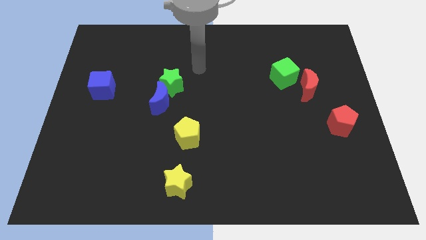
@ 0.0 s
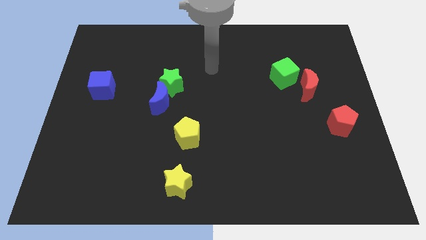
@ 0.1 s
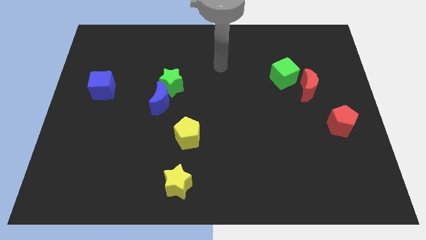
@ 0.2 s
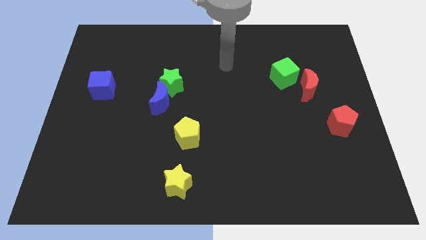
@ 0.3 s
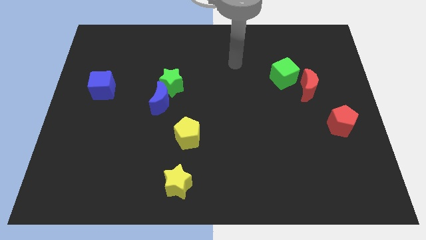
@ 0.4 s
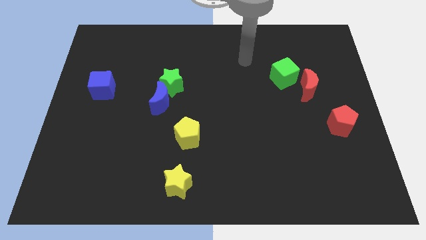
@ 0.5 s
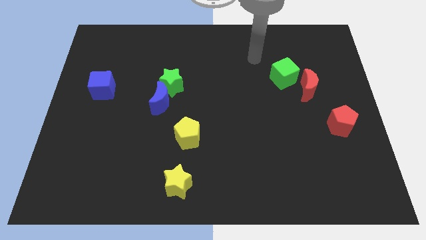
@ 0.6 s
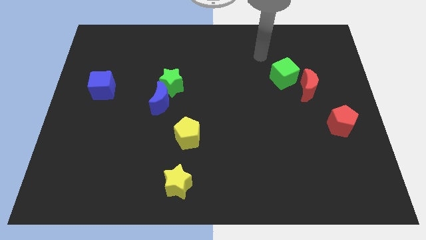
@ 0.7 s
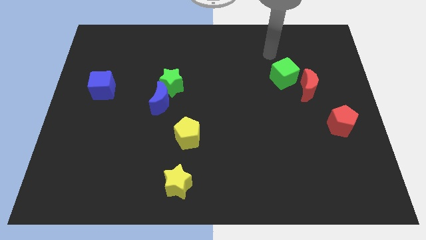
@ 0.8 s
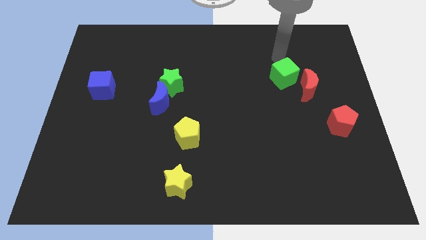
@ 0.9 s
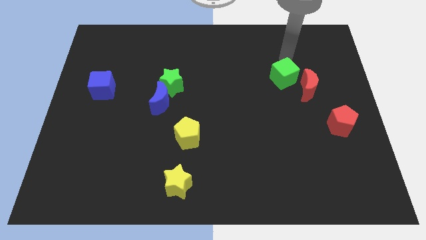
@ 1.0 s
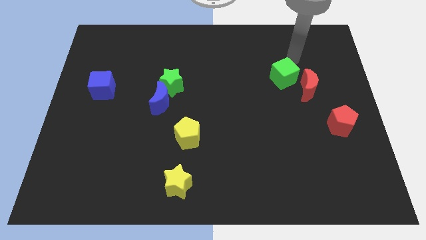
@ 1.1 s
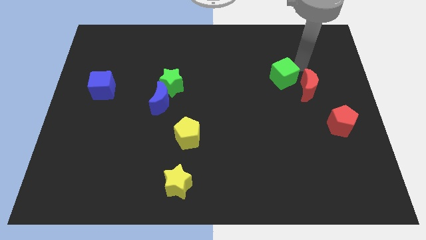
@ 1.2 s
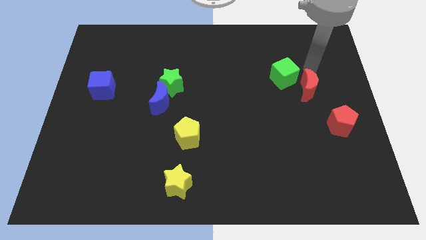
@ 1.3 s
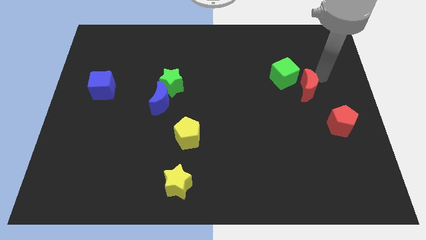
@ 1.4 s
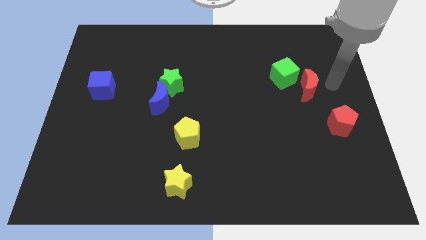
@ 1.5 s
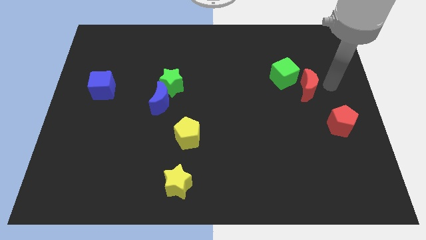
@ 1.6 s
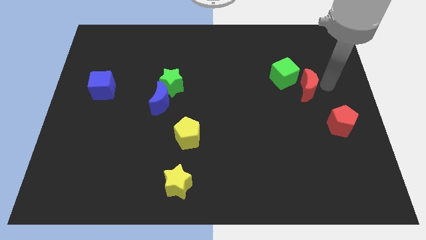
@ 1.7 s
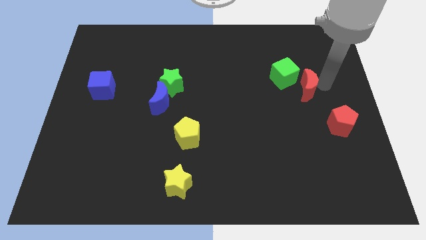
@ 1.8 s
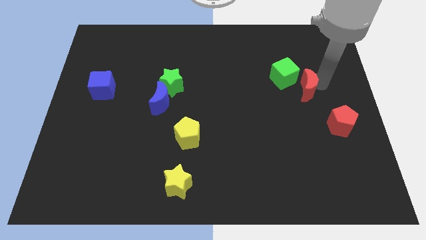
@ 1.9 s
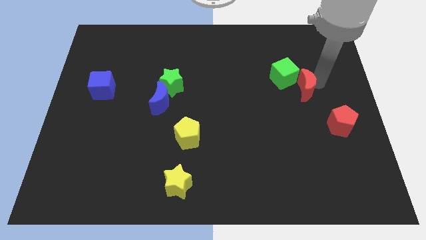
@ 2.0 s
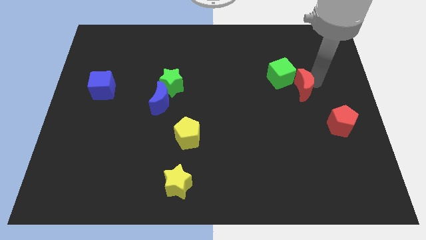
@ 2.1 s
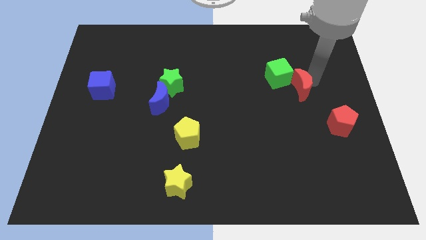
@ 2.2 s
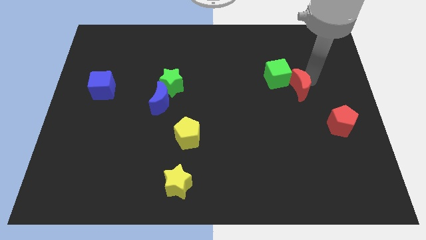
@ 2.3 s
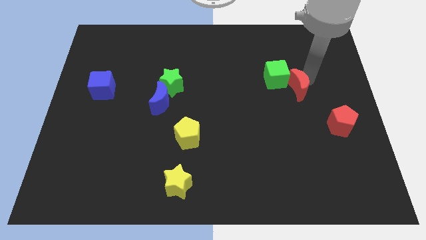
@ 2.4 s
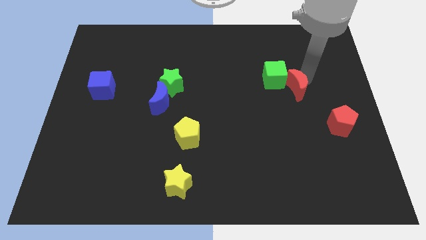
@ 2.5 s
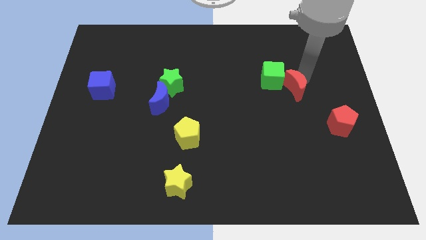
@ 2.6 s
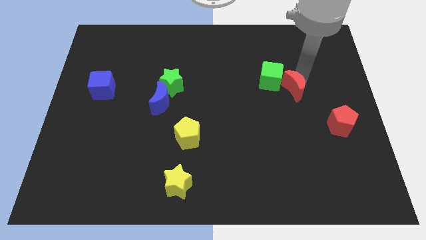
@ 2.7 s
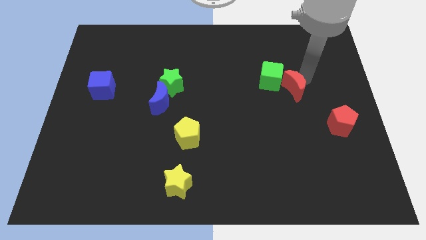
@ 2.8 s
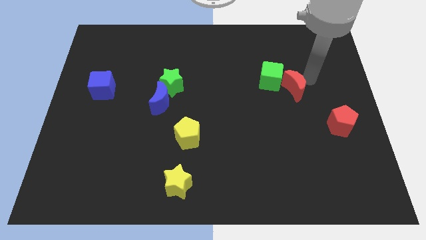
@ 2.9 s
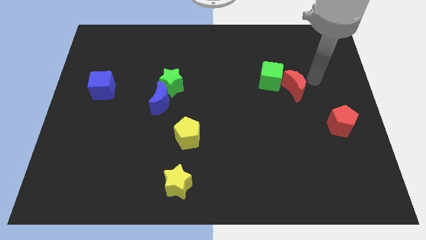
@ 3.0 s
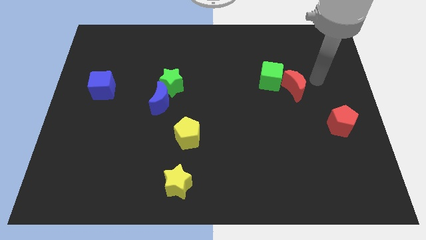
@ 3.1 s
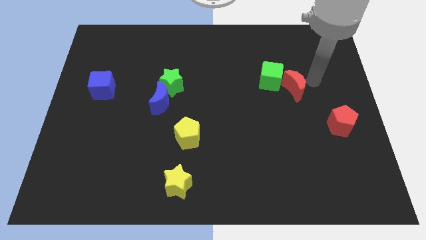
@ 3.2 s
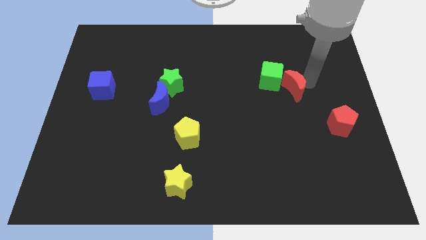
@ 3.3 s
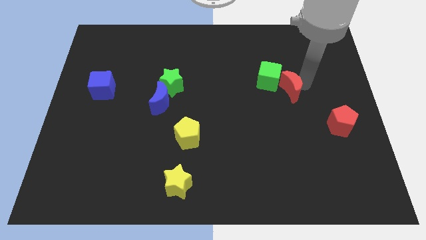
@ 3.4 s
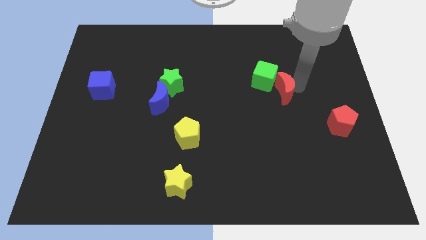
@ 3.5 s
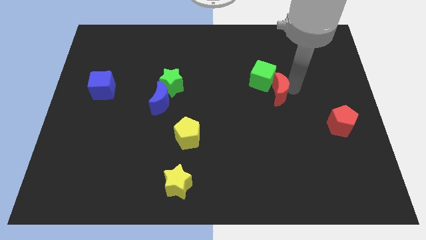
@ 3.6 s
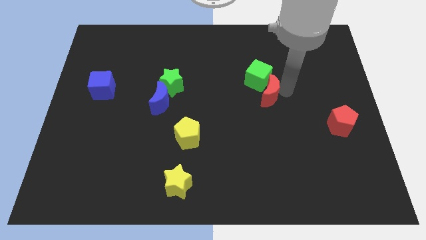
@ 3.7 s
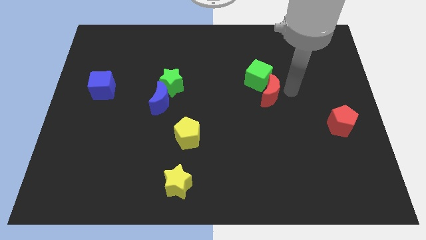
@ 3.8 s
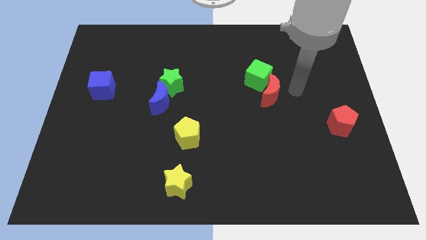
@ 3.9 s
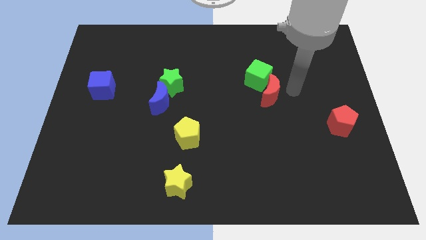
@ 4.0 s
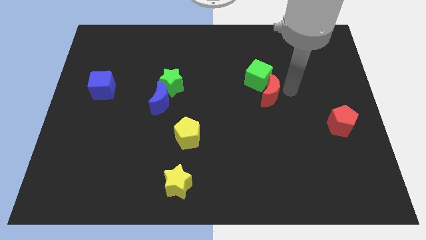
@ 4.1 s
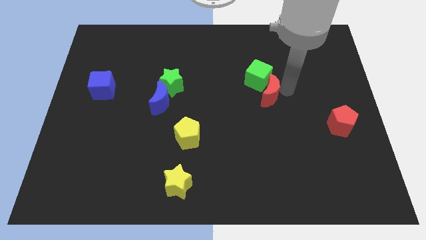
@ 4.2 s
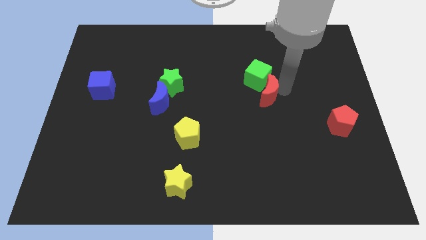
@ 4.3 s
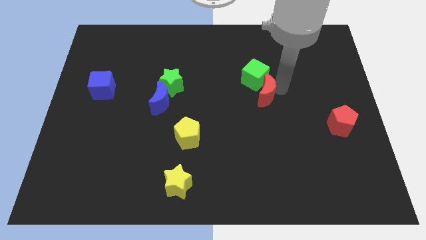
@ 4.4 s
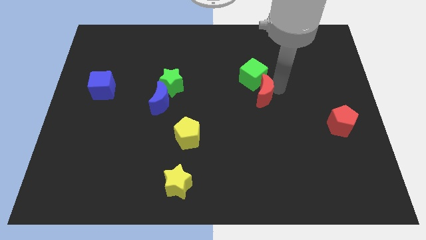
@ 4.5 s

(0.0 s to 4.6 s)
slide the red moon to the center of the board

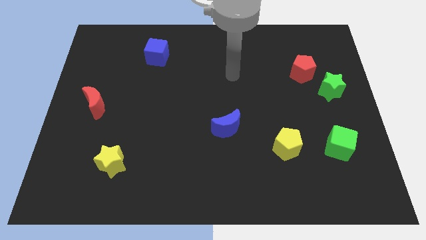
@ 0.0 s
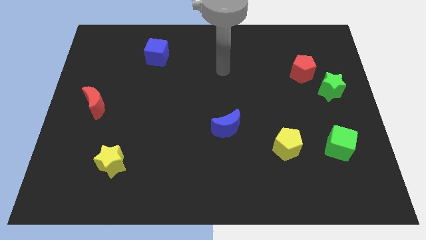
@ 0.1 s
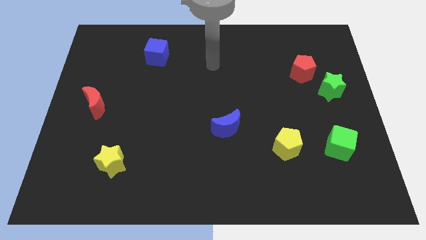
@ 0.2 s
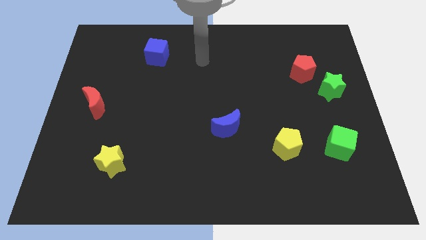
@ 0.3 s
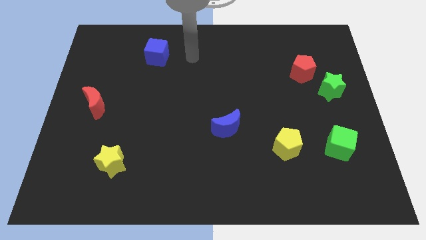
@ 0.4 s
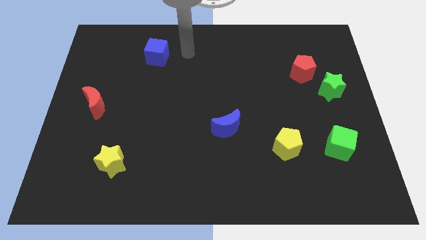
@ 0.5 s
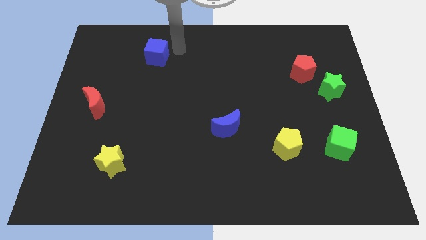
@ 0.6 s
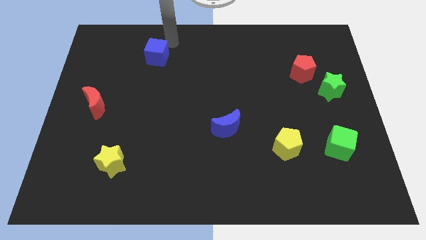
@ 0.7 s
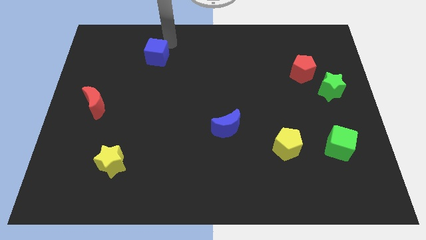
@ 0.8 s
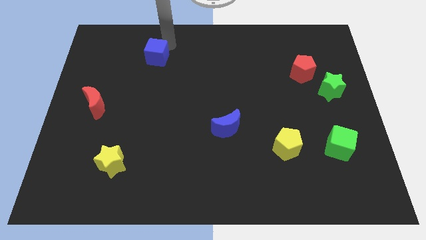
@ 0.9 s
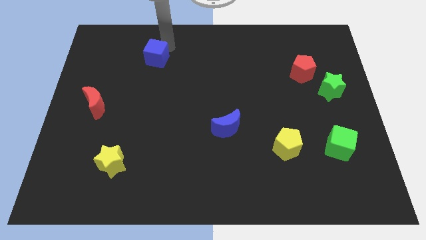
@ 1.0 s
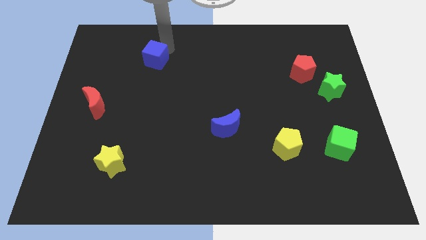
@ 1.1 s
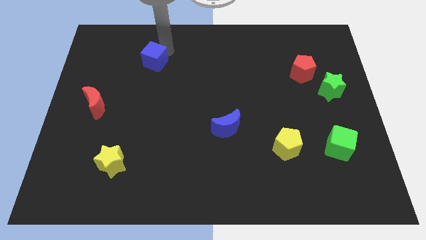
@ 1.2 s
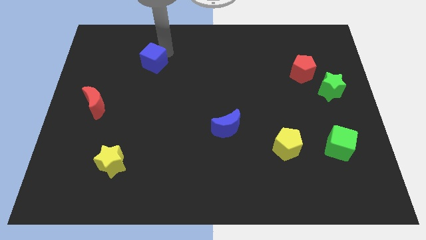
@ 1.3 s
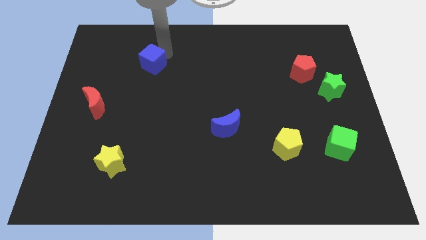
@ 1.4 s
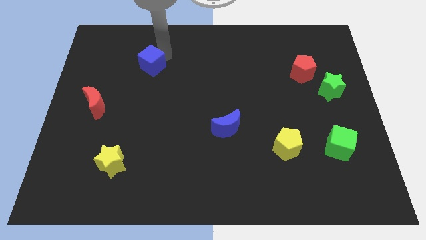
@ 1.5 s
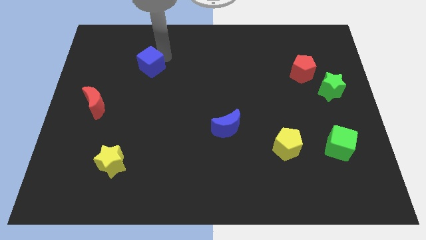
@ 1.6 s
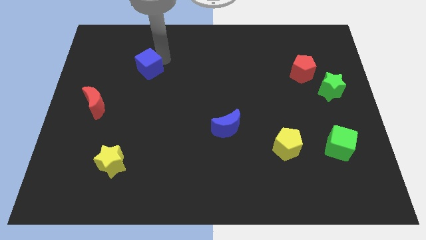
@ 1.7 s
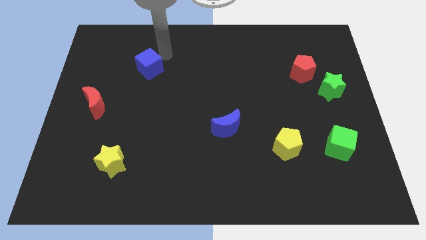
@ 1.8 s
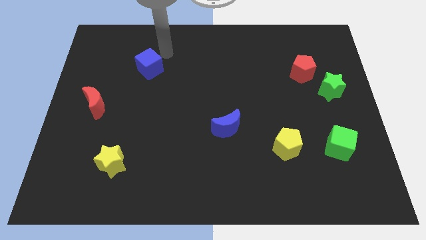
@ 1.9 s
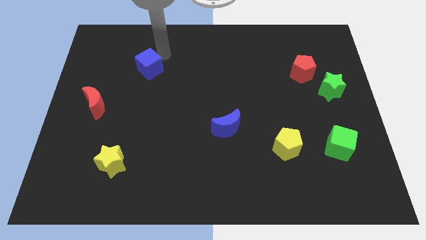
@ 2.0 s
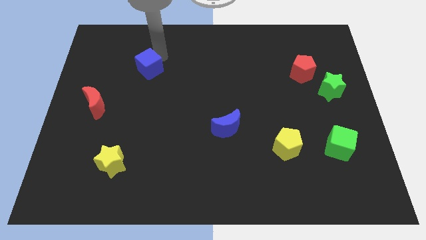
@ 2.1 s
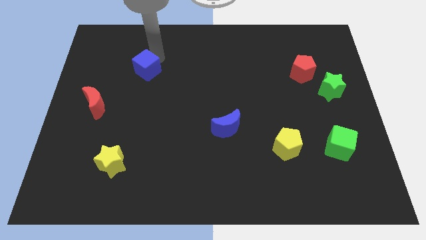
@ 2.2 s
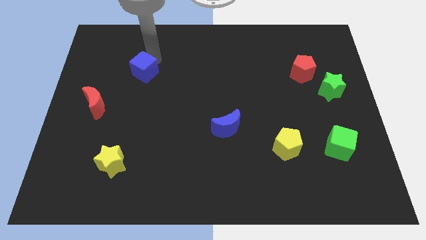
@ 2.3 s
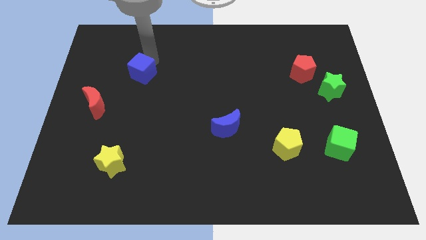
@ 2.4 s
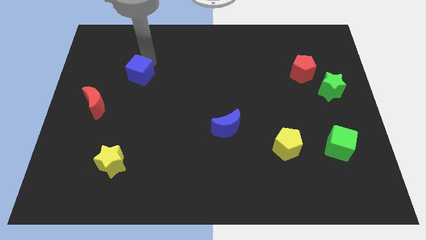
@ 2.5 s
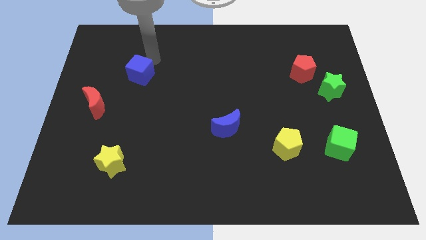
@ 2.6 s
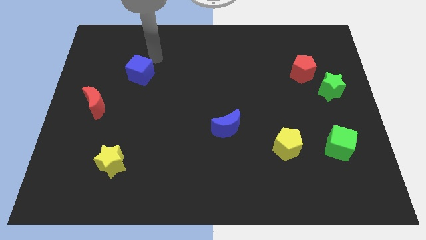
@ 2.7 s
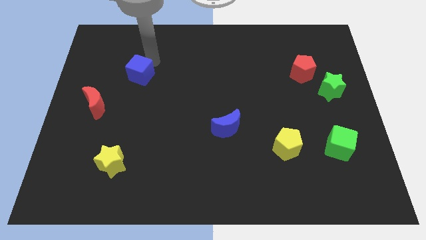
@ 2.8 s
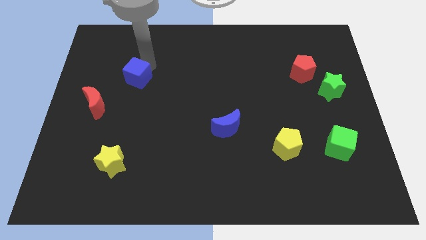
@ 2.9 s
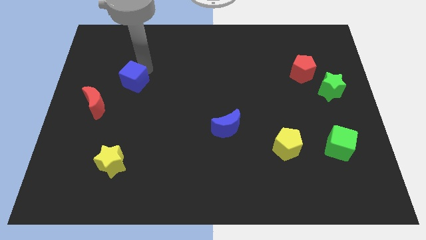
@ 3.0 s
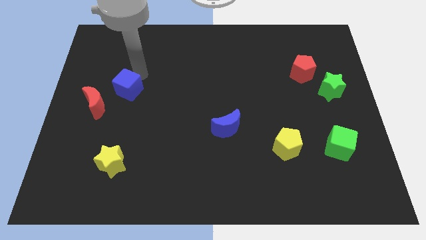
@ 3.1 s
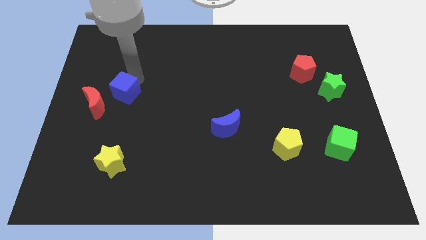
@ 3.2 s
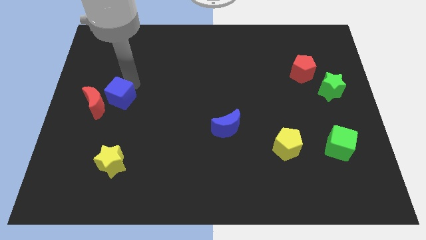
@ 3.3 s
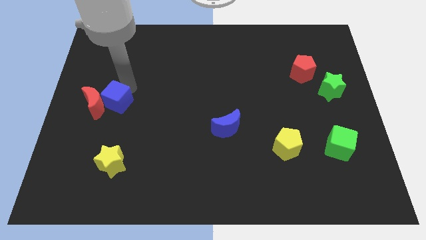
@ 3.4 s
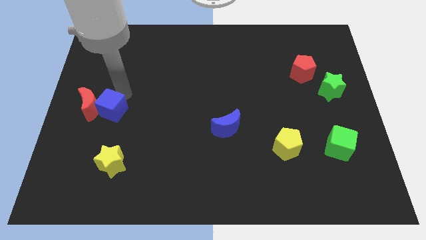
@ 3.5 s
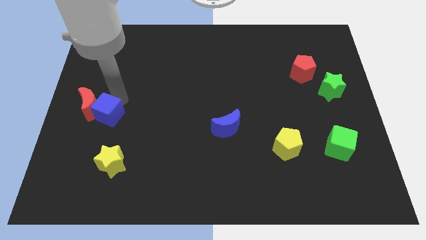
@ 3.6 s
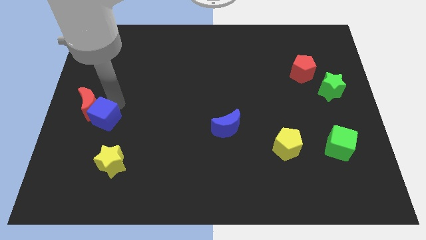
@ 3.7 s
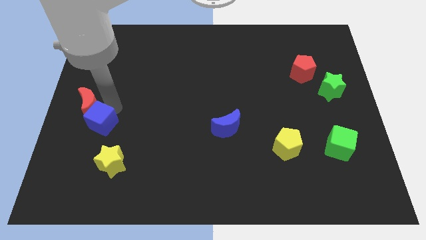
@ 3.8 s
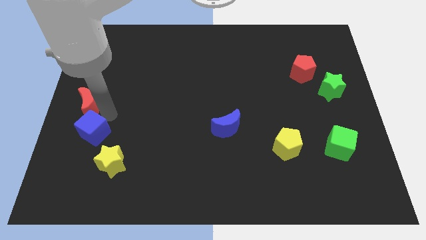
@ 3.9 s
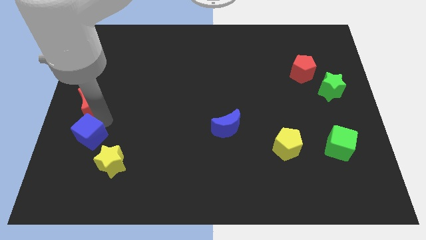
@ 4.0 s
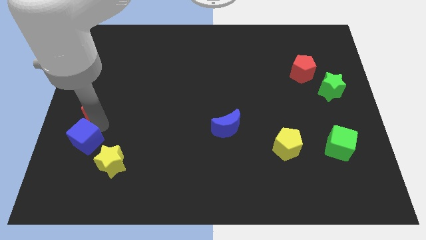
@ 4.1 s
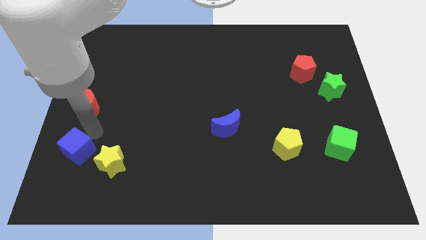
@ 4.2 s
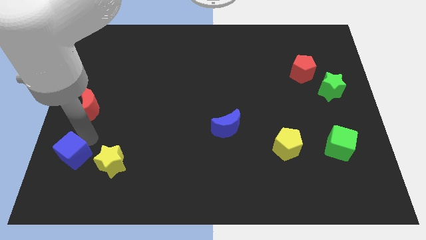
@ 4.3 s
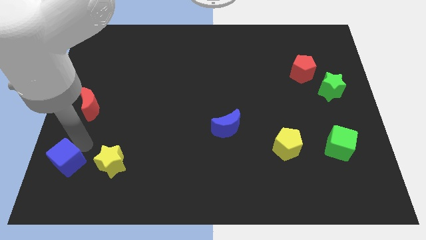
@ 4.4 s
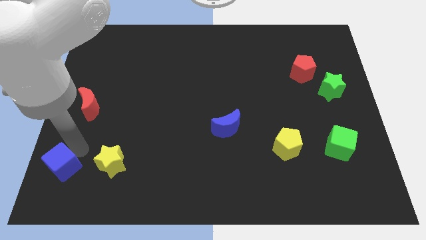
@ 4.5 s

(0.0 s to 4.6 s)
move the blue cube to the bottom left corner
